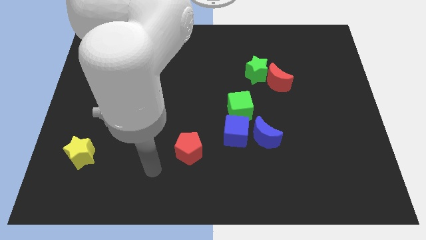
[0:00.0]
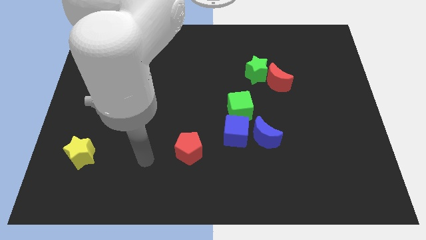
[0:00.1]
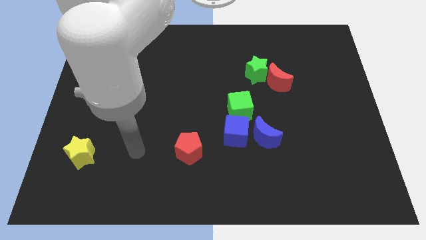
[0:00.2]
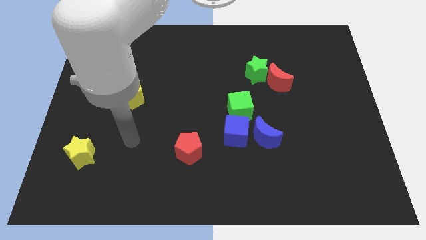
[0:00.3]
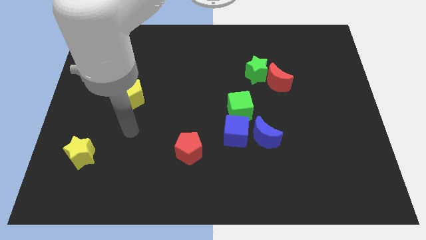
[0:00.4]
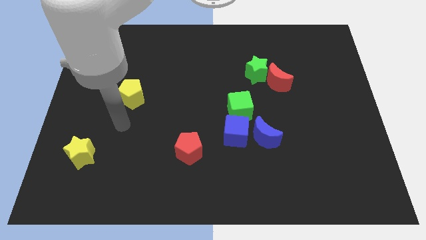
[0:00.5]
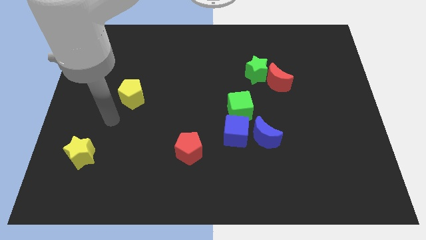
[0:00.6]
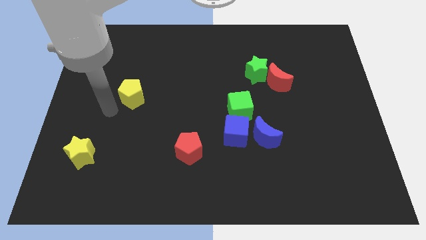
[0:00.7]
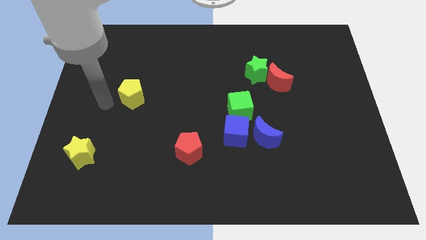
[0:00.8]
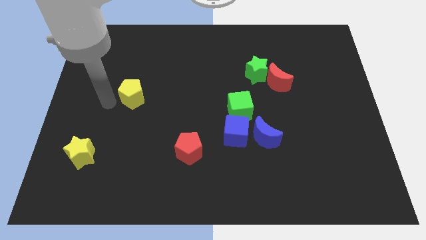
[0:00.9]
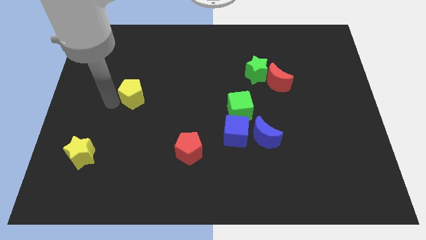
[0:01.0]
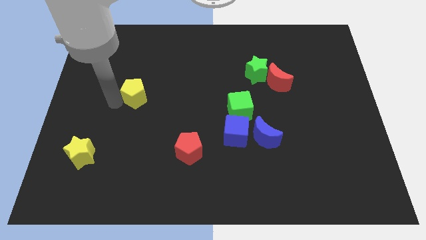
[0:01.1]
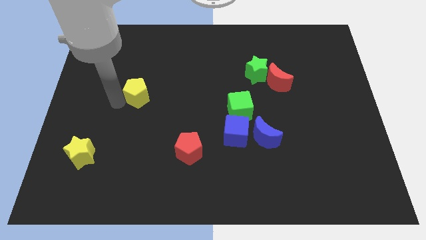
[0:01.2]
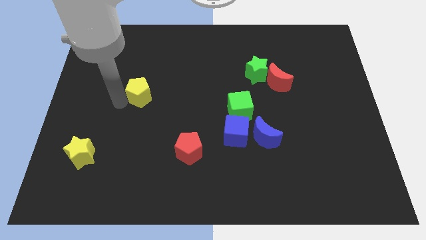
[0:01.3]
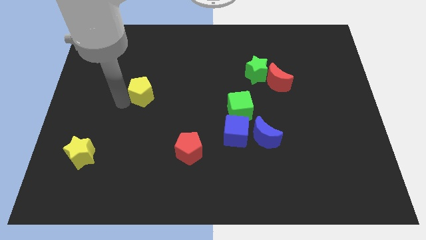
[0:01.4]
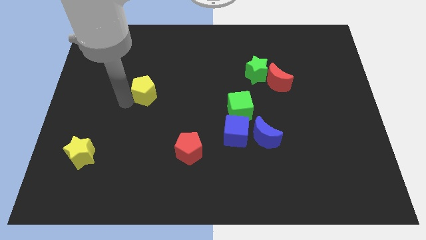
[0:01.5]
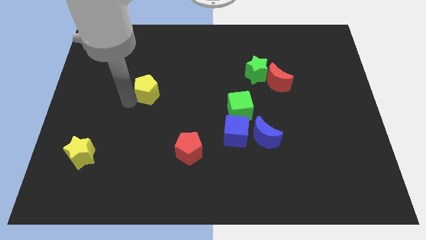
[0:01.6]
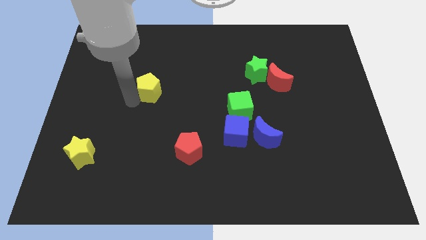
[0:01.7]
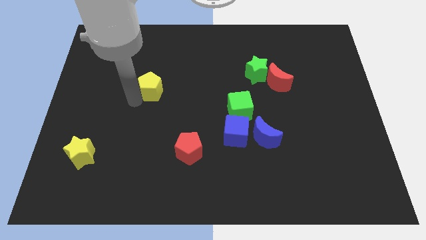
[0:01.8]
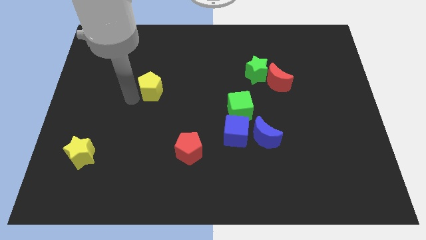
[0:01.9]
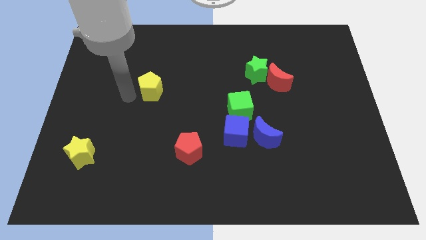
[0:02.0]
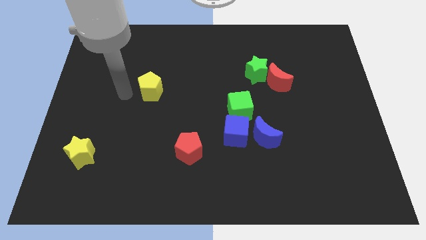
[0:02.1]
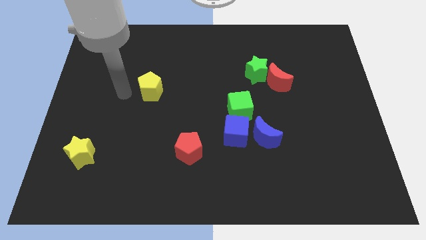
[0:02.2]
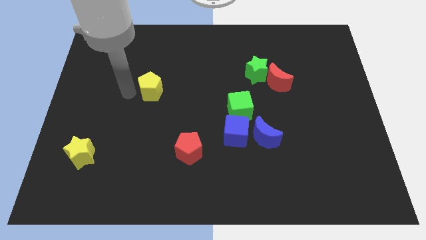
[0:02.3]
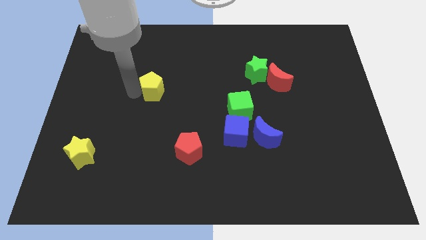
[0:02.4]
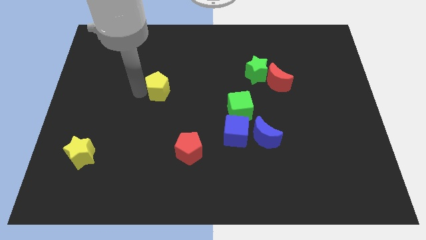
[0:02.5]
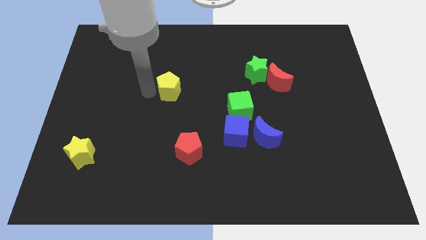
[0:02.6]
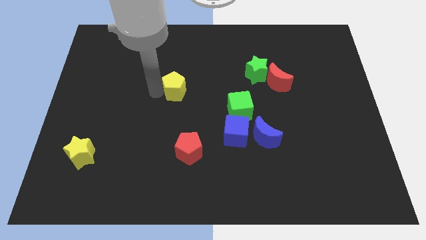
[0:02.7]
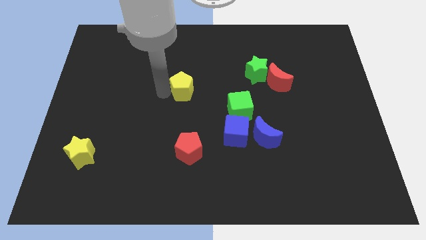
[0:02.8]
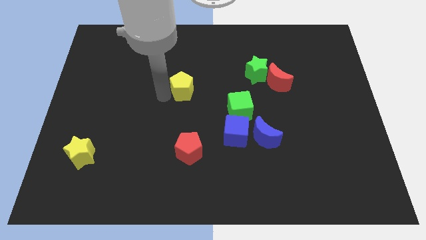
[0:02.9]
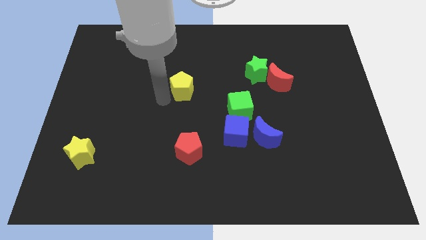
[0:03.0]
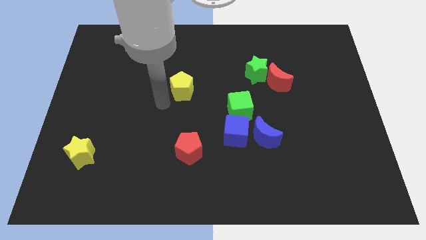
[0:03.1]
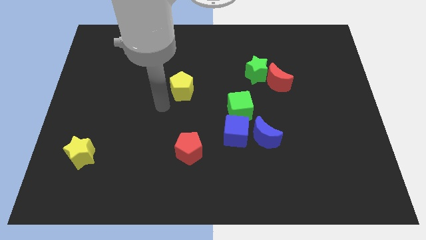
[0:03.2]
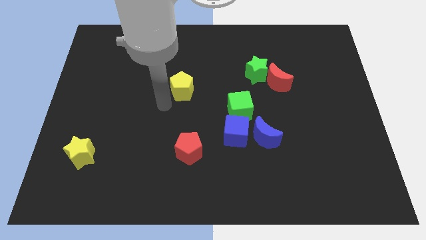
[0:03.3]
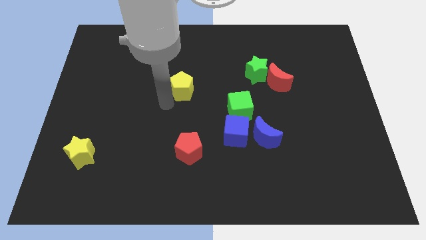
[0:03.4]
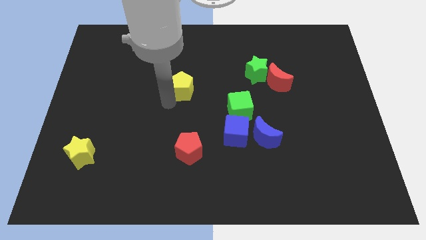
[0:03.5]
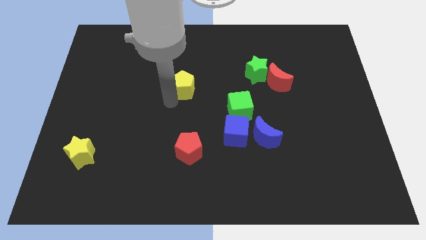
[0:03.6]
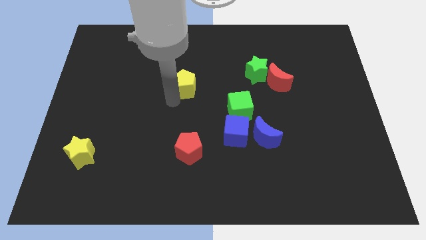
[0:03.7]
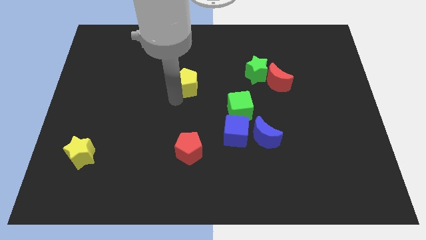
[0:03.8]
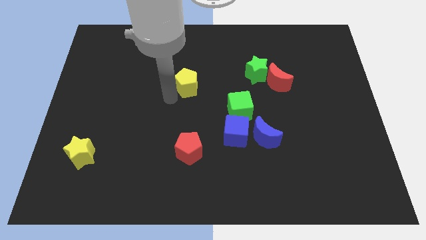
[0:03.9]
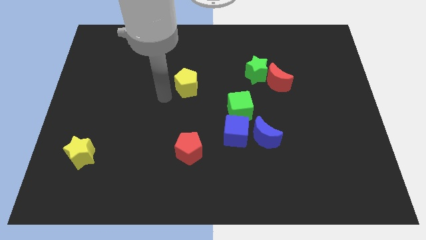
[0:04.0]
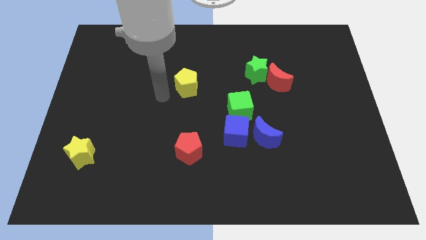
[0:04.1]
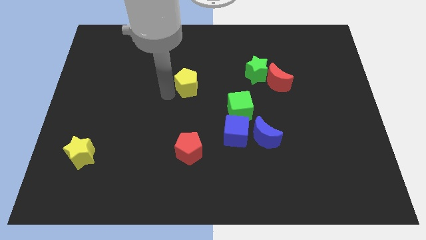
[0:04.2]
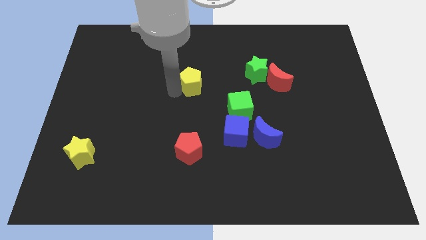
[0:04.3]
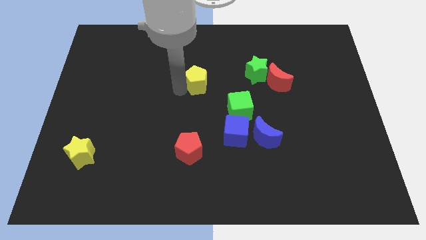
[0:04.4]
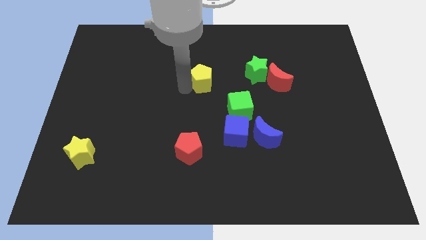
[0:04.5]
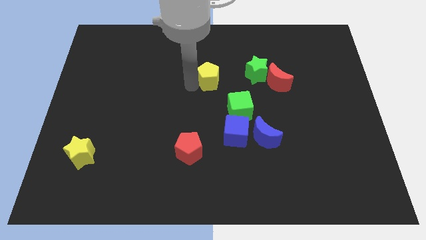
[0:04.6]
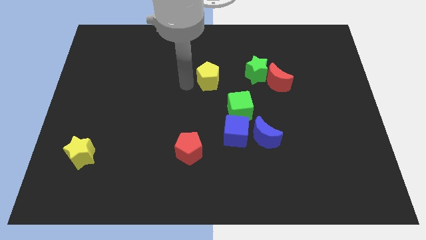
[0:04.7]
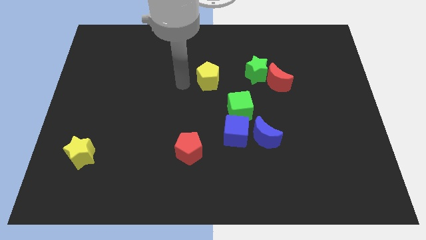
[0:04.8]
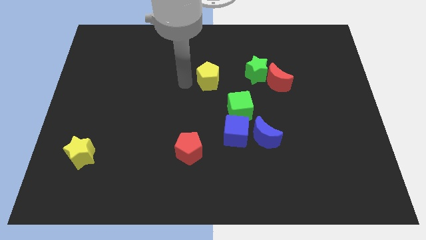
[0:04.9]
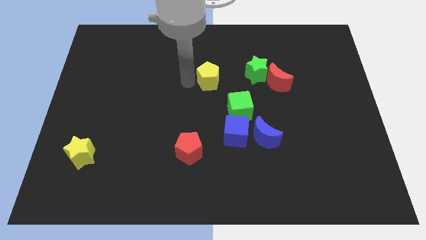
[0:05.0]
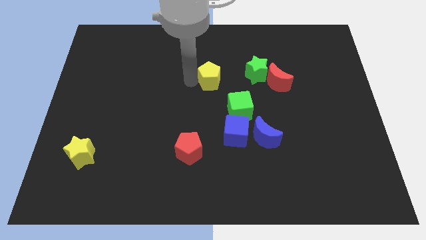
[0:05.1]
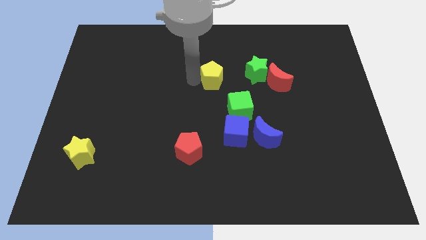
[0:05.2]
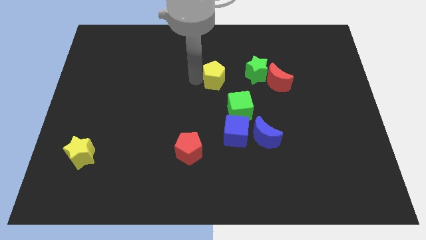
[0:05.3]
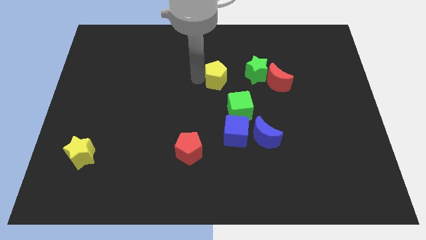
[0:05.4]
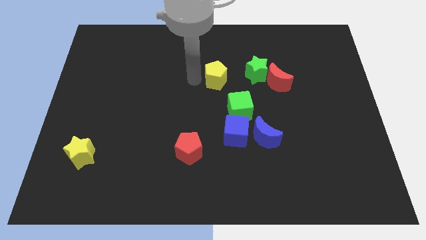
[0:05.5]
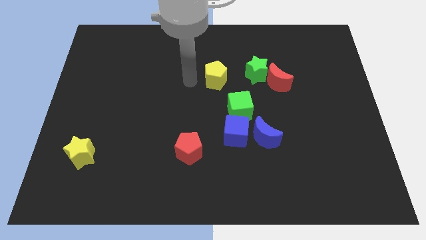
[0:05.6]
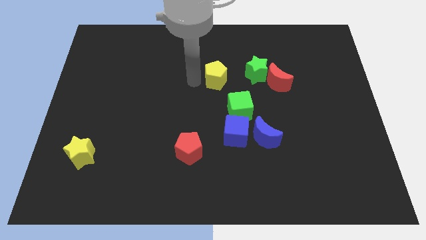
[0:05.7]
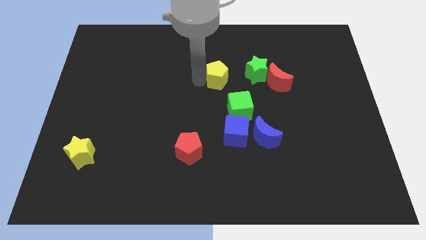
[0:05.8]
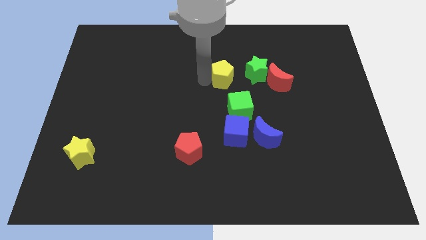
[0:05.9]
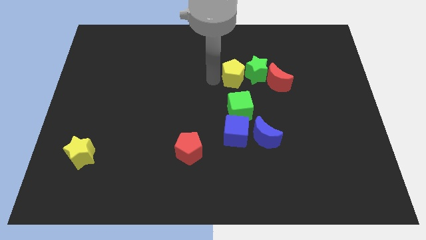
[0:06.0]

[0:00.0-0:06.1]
slide the yellow pentagon next to the green star

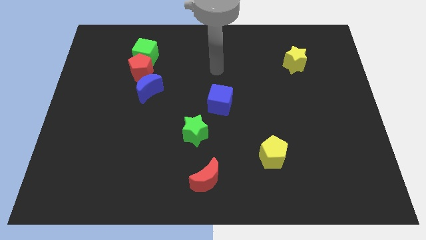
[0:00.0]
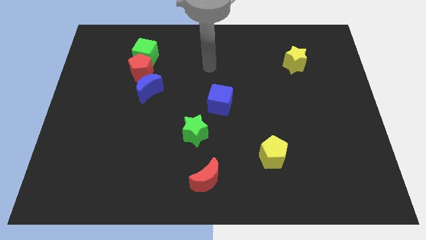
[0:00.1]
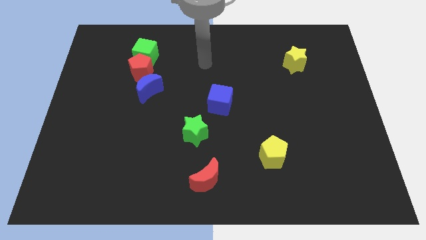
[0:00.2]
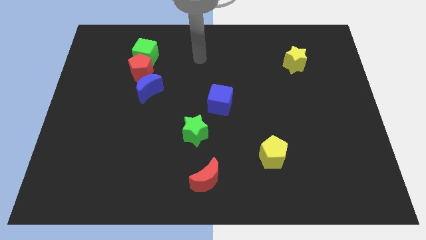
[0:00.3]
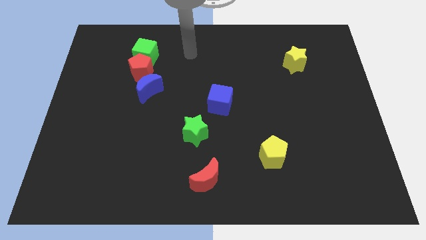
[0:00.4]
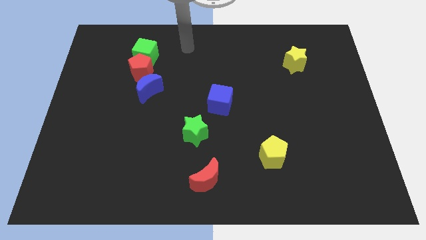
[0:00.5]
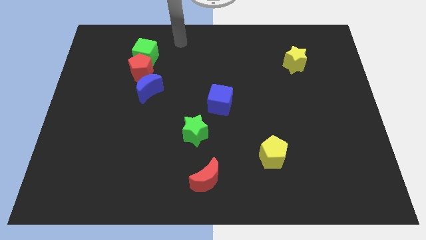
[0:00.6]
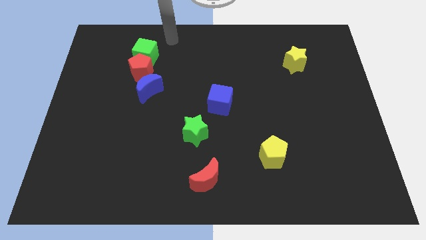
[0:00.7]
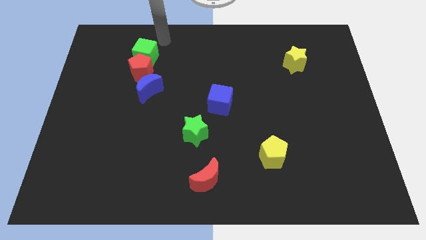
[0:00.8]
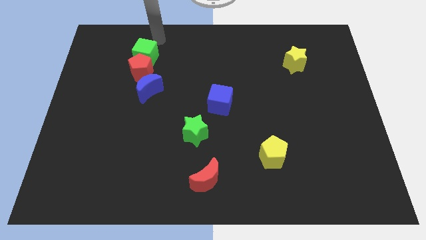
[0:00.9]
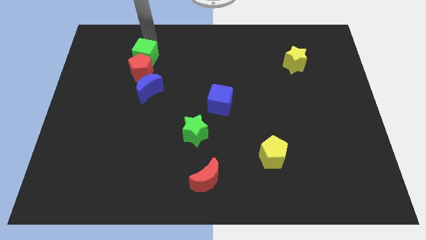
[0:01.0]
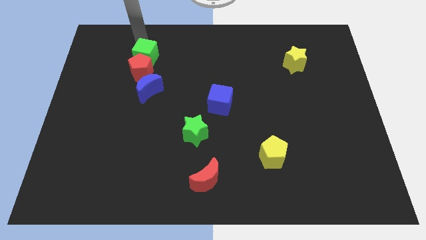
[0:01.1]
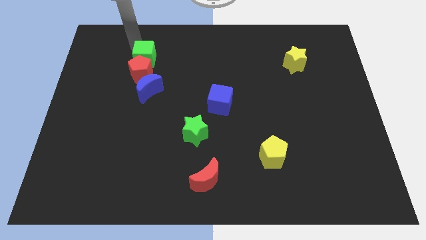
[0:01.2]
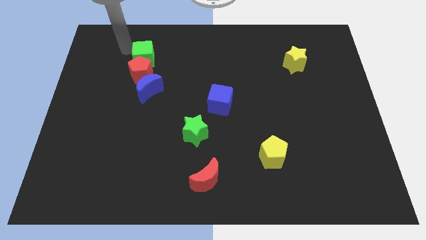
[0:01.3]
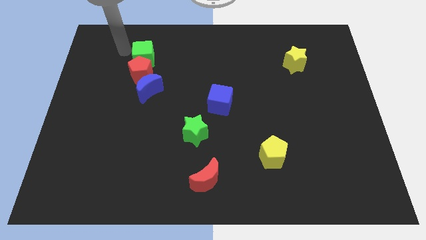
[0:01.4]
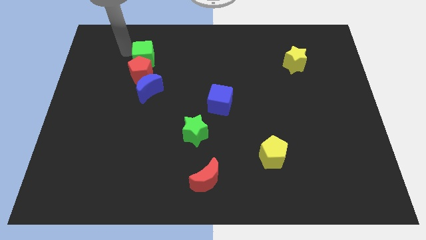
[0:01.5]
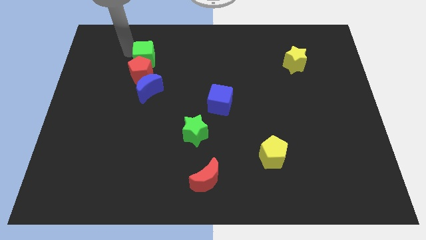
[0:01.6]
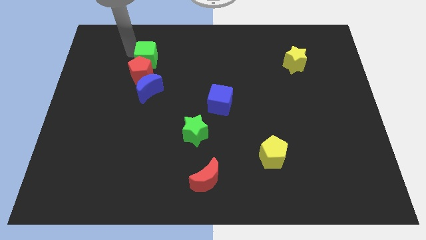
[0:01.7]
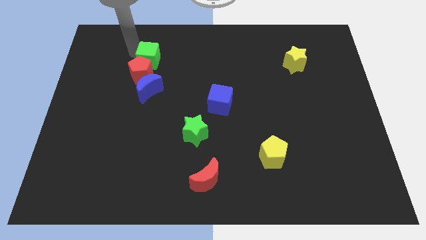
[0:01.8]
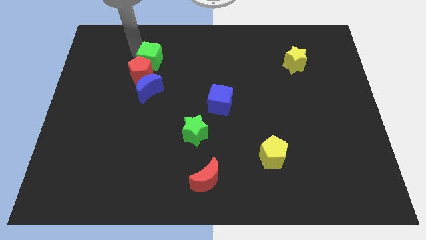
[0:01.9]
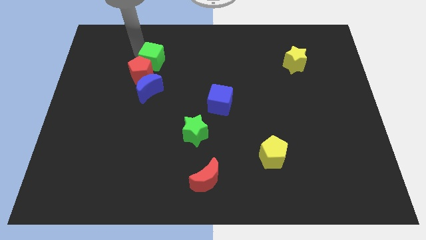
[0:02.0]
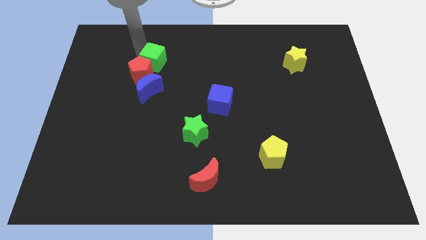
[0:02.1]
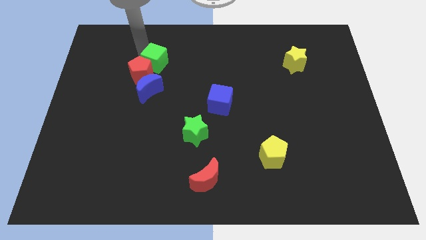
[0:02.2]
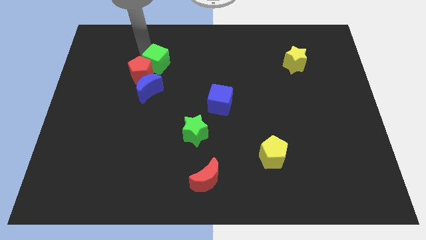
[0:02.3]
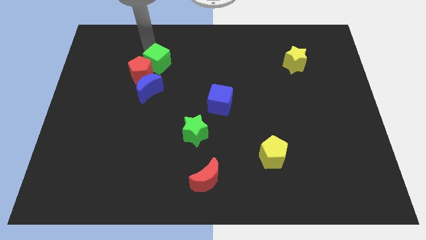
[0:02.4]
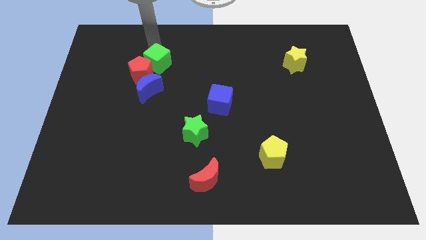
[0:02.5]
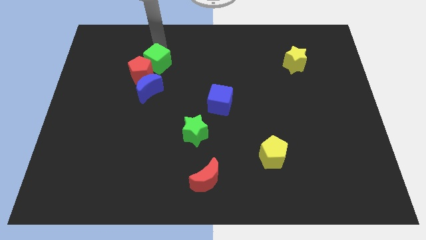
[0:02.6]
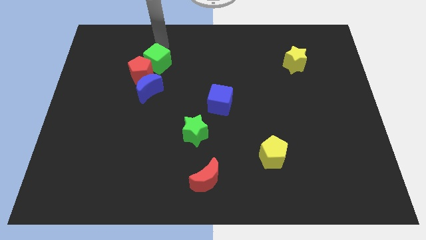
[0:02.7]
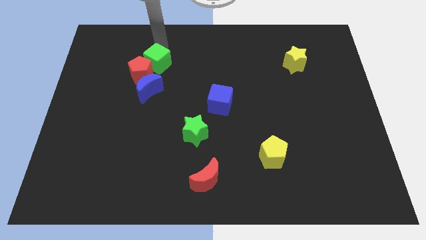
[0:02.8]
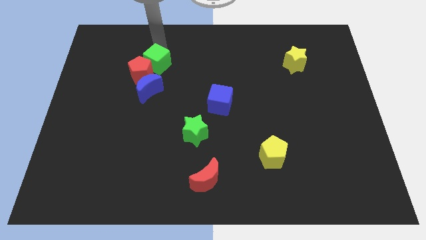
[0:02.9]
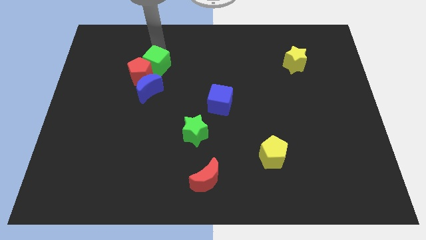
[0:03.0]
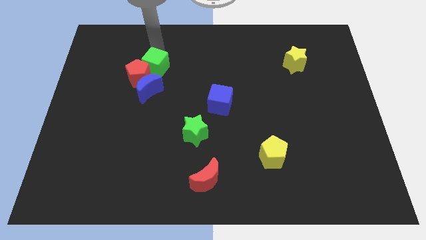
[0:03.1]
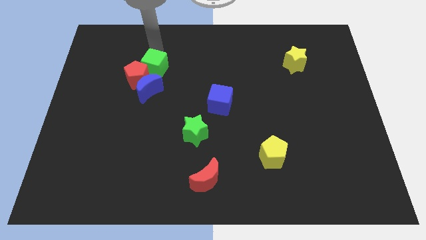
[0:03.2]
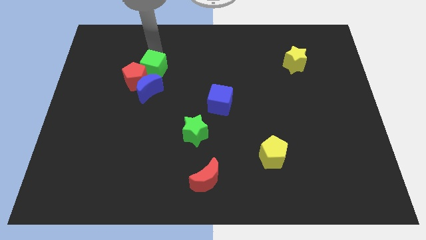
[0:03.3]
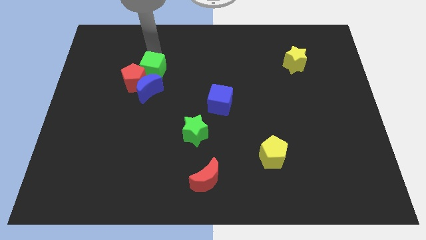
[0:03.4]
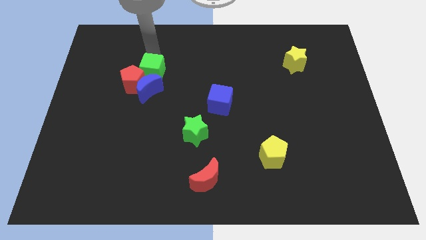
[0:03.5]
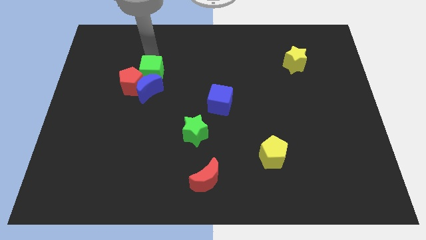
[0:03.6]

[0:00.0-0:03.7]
slide the green cube towards the blue moon
